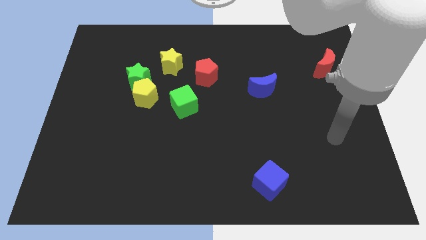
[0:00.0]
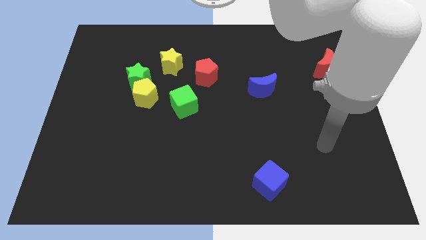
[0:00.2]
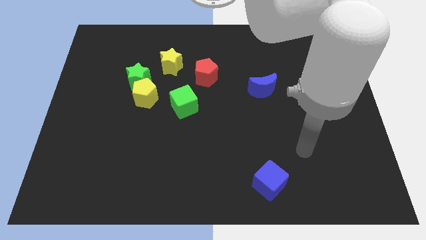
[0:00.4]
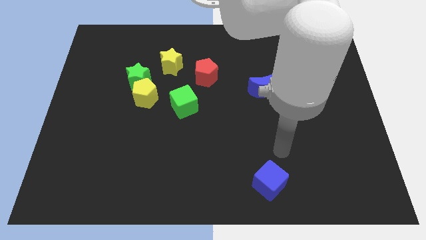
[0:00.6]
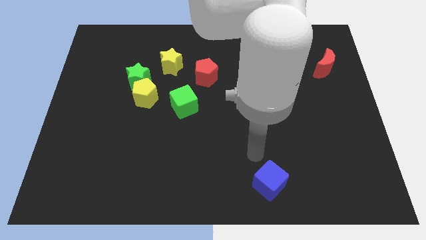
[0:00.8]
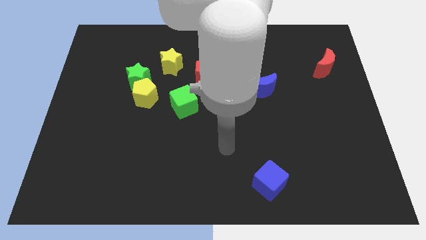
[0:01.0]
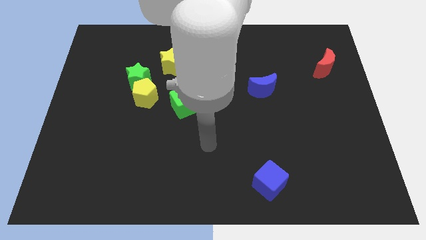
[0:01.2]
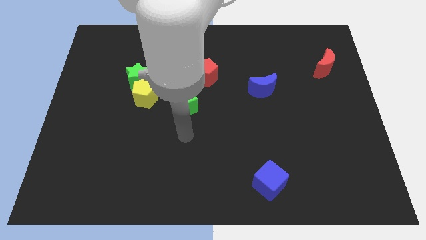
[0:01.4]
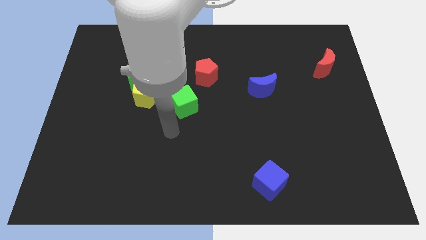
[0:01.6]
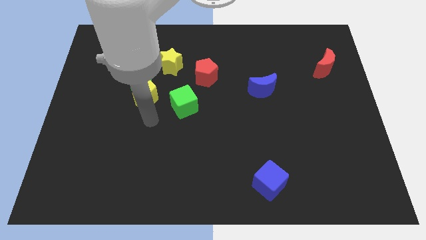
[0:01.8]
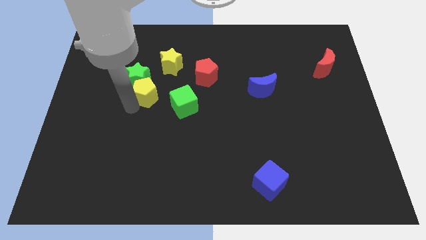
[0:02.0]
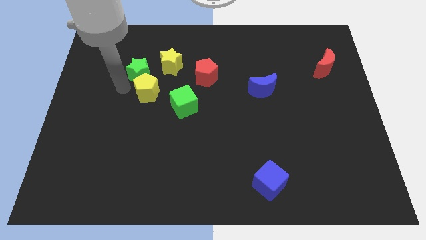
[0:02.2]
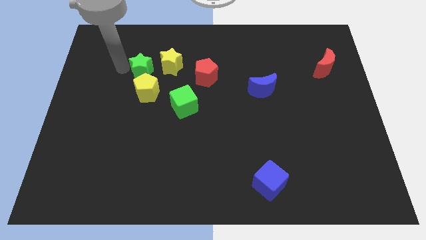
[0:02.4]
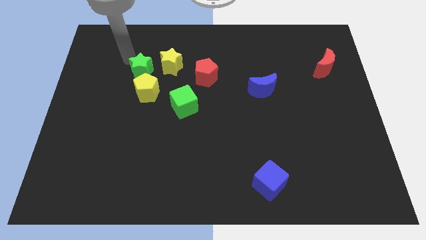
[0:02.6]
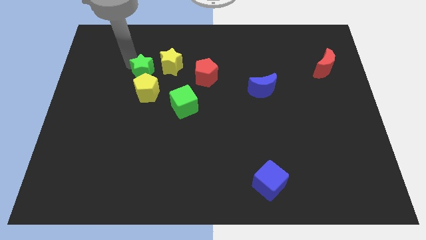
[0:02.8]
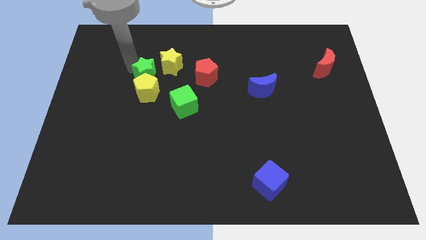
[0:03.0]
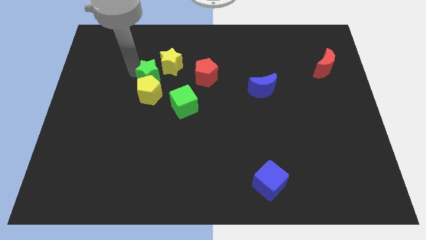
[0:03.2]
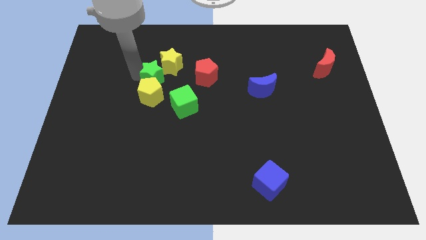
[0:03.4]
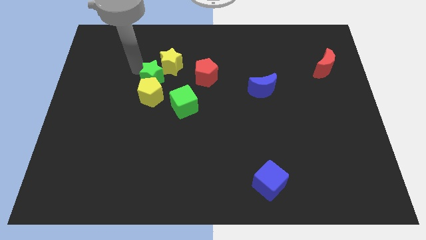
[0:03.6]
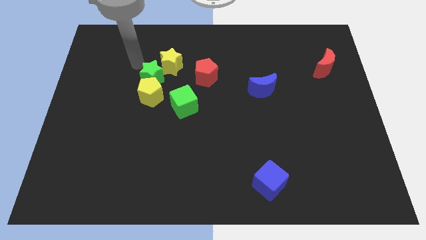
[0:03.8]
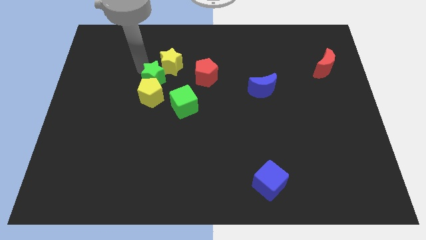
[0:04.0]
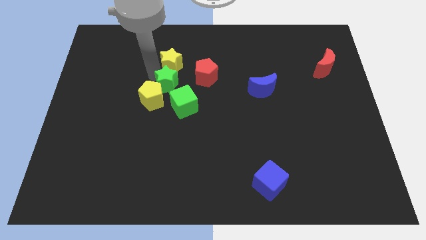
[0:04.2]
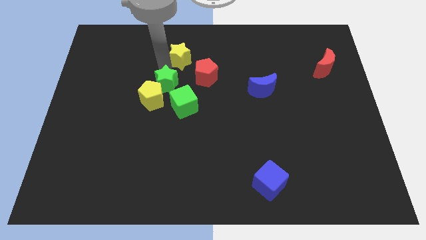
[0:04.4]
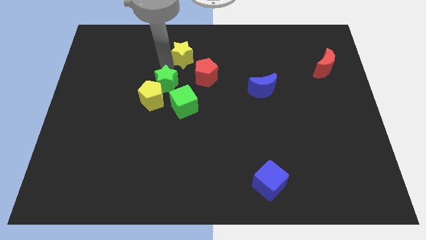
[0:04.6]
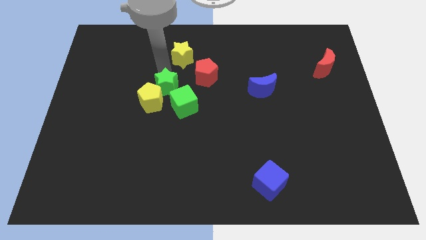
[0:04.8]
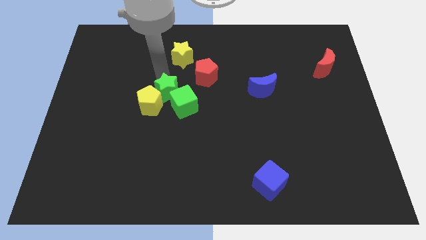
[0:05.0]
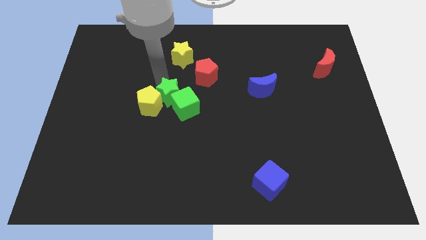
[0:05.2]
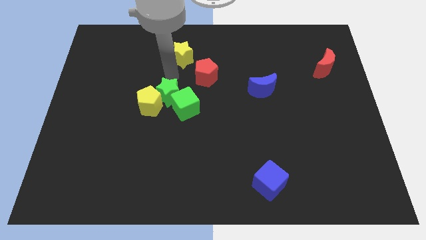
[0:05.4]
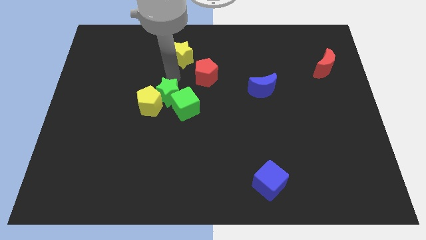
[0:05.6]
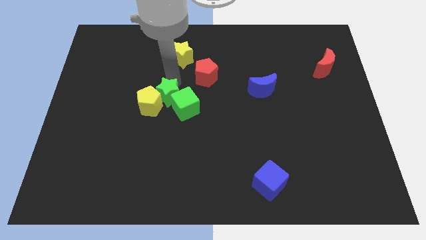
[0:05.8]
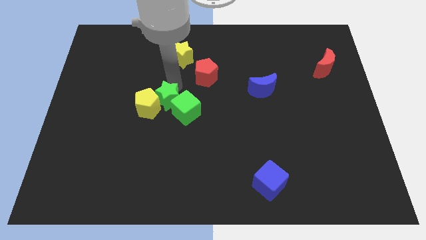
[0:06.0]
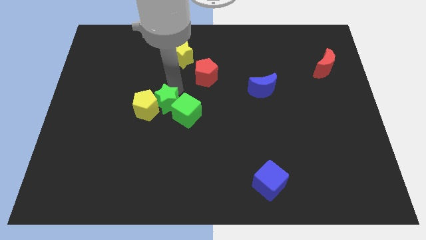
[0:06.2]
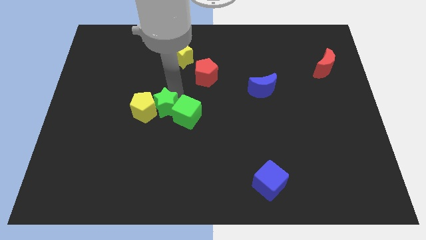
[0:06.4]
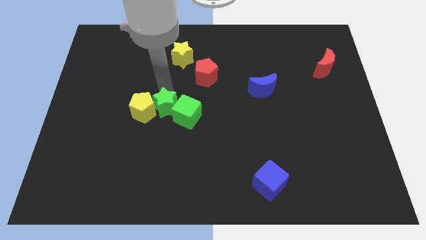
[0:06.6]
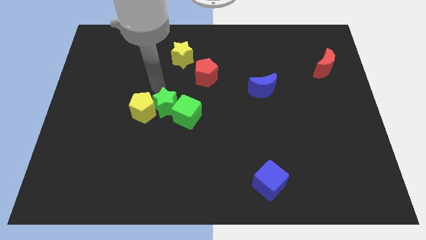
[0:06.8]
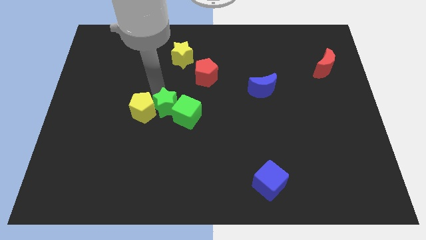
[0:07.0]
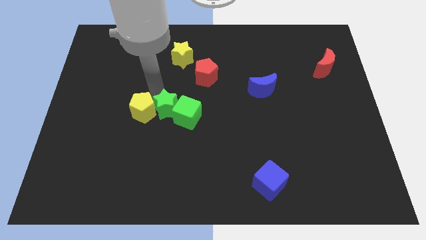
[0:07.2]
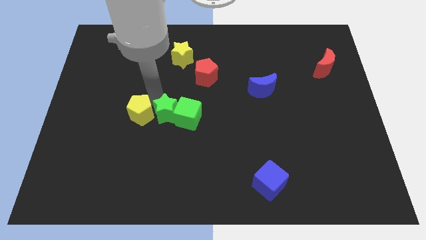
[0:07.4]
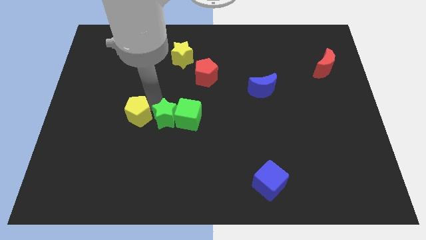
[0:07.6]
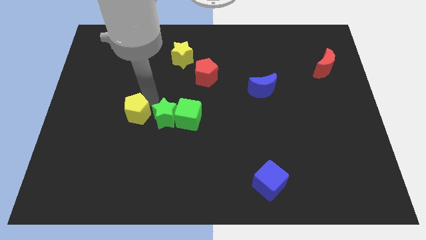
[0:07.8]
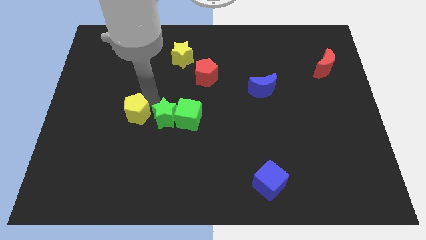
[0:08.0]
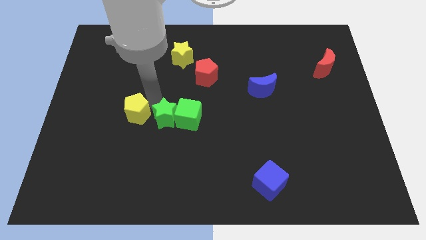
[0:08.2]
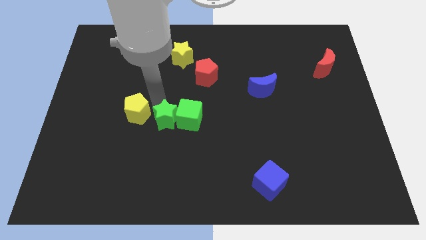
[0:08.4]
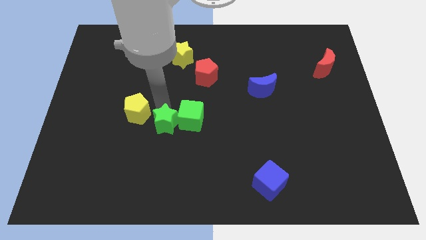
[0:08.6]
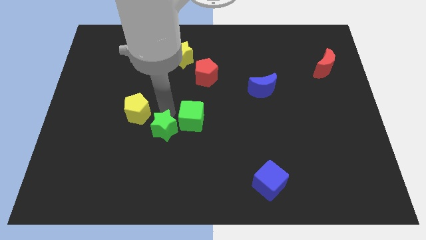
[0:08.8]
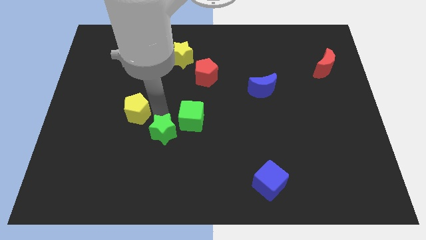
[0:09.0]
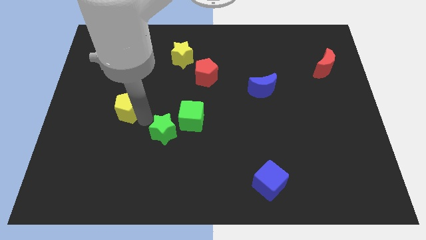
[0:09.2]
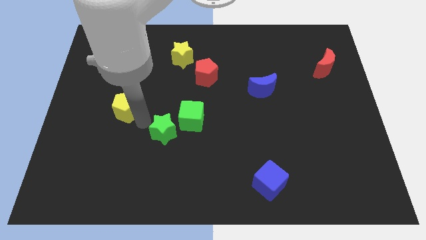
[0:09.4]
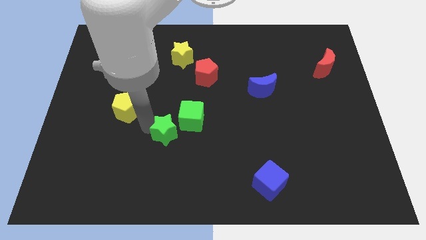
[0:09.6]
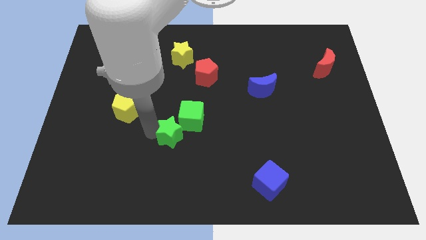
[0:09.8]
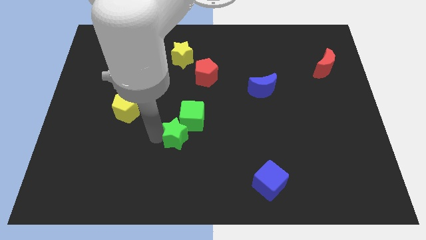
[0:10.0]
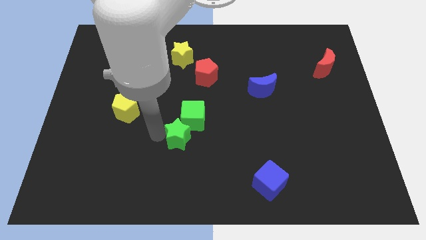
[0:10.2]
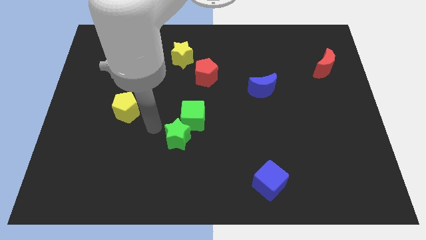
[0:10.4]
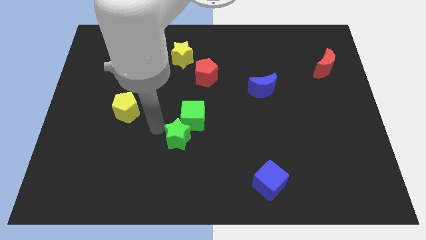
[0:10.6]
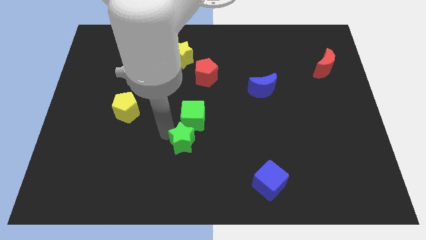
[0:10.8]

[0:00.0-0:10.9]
slide the green star down and to the right diagonally

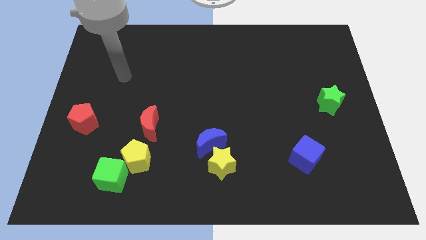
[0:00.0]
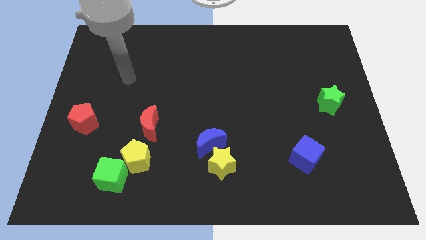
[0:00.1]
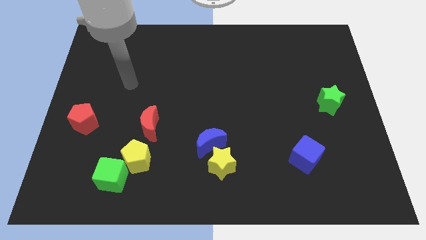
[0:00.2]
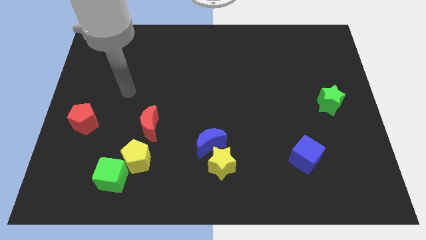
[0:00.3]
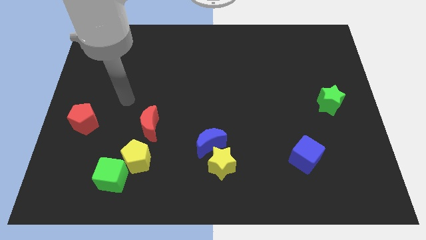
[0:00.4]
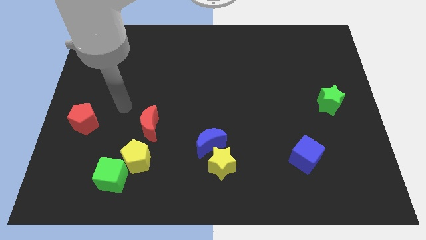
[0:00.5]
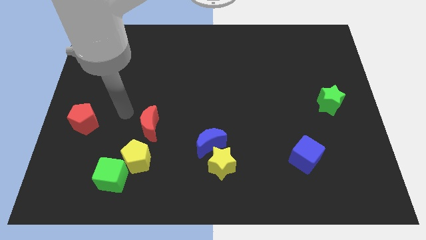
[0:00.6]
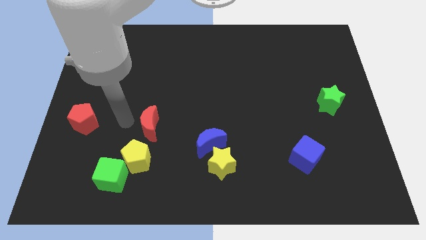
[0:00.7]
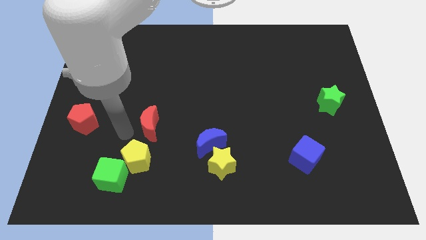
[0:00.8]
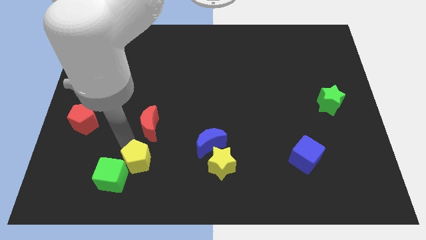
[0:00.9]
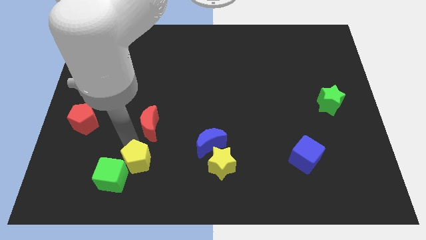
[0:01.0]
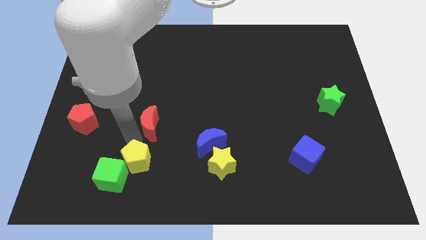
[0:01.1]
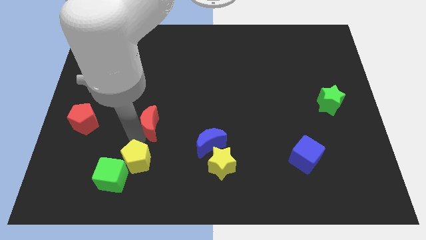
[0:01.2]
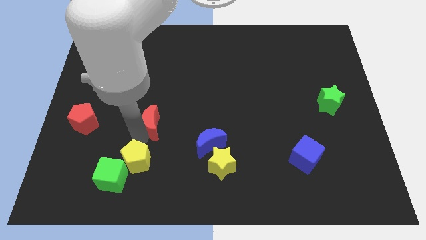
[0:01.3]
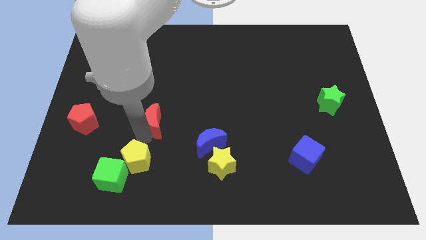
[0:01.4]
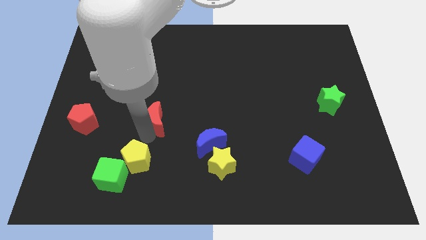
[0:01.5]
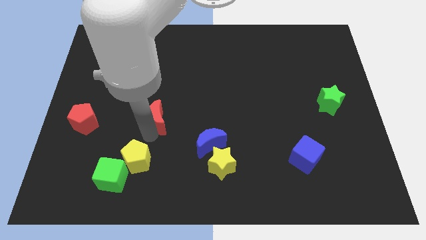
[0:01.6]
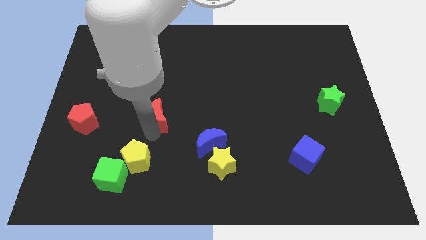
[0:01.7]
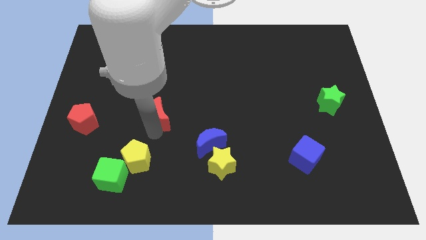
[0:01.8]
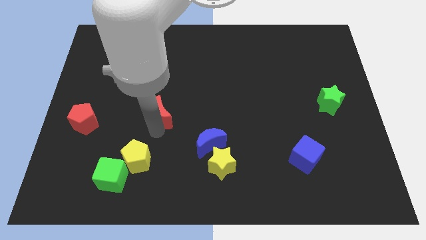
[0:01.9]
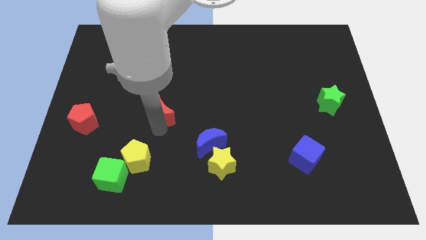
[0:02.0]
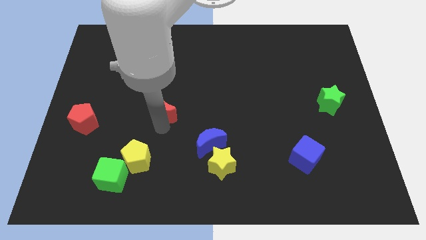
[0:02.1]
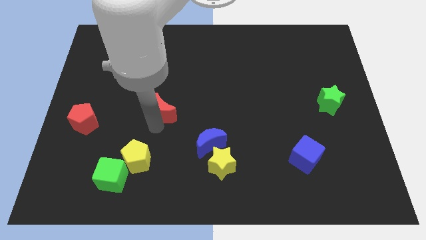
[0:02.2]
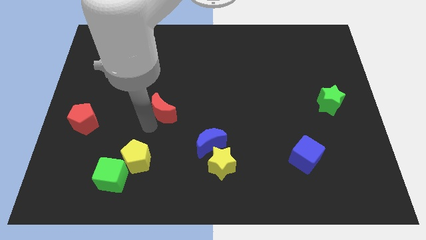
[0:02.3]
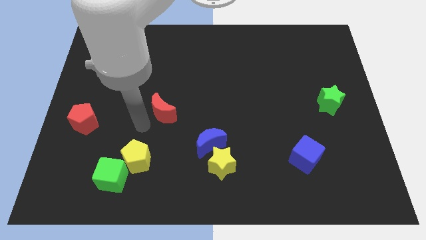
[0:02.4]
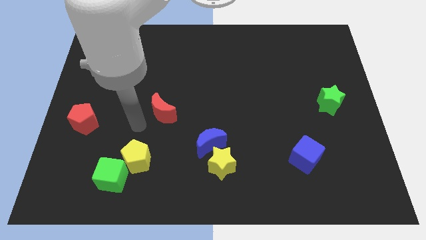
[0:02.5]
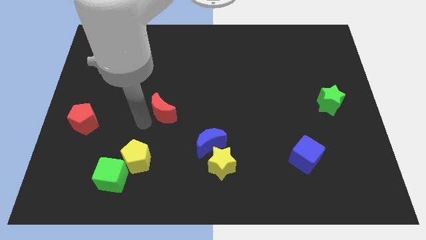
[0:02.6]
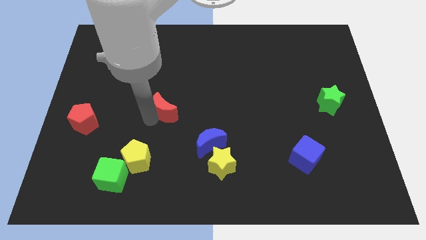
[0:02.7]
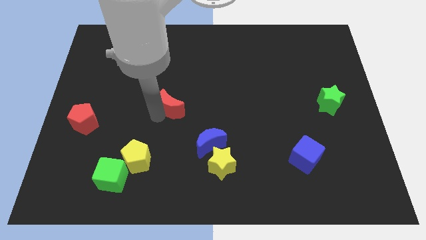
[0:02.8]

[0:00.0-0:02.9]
slide the red moon a little bit upwards and right diagonally
